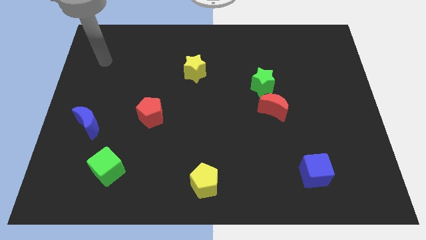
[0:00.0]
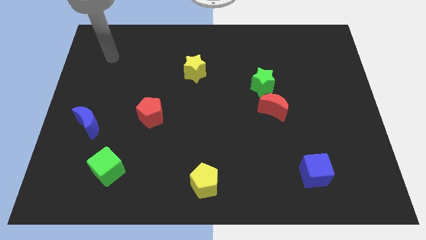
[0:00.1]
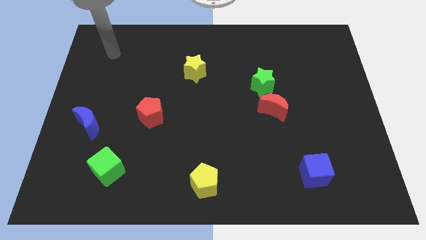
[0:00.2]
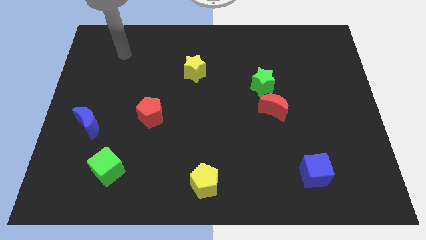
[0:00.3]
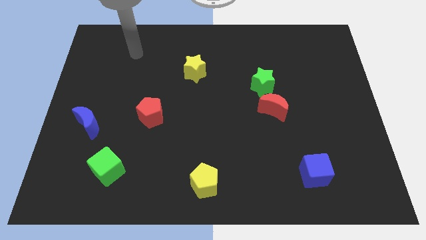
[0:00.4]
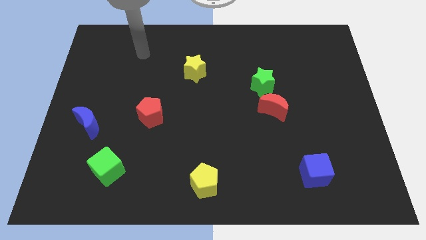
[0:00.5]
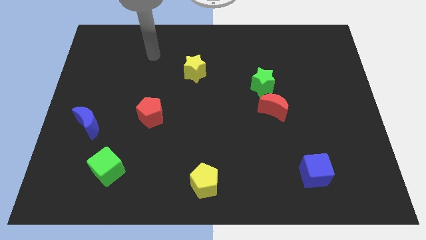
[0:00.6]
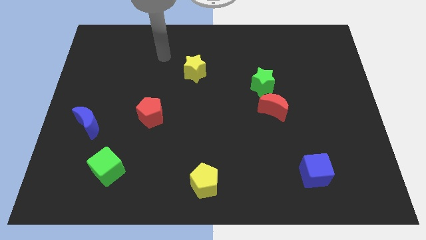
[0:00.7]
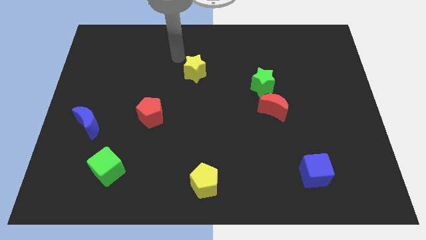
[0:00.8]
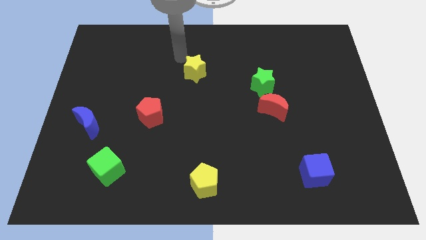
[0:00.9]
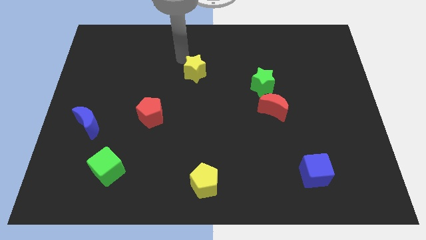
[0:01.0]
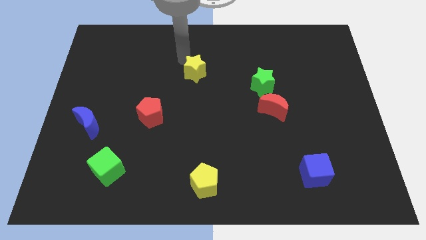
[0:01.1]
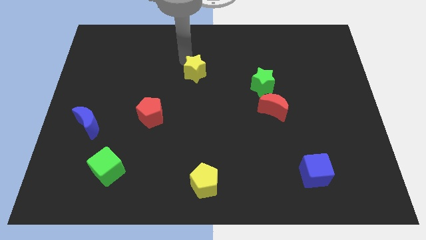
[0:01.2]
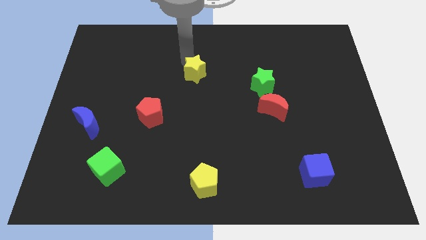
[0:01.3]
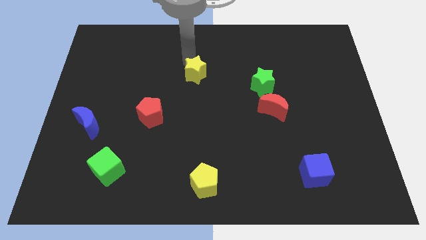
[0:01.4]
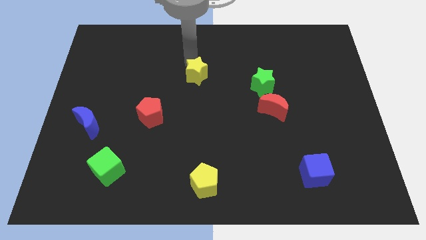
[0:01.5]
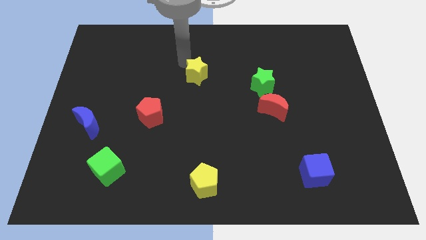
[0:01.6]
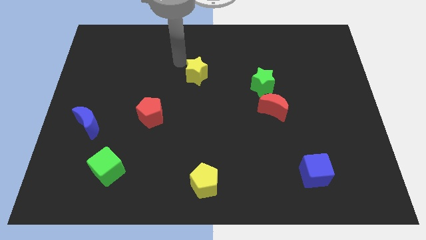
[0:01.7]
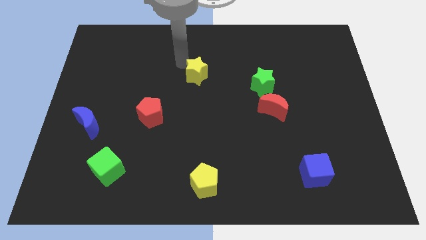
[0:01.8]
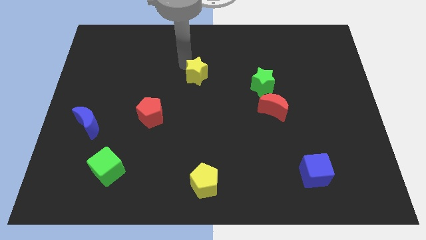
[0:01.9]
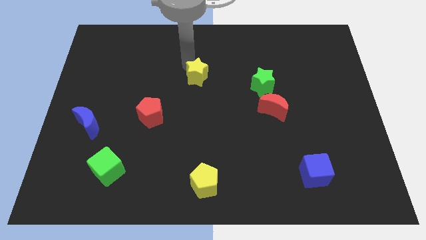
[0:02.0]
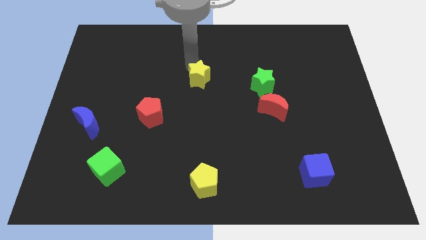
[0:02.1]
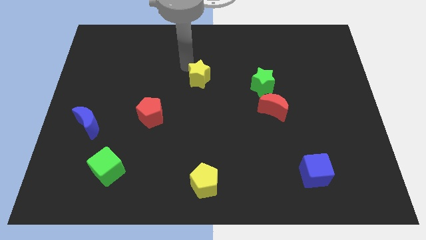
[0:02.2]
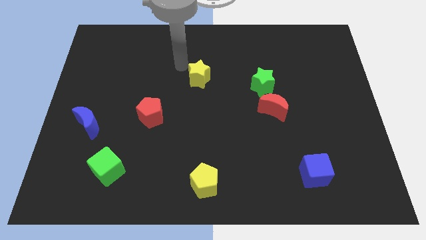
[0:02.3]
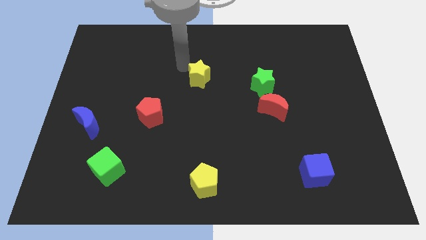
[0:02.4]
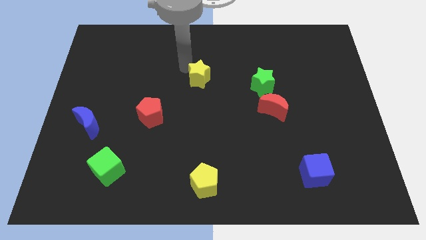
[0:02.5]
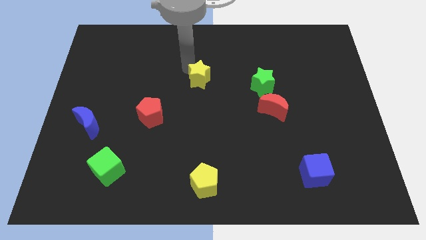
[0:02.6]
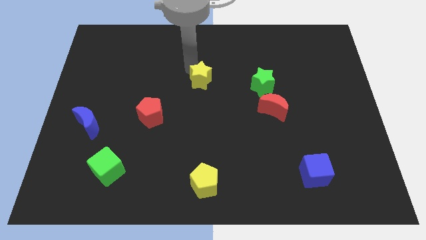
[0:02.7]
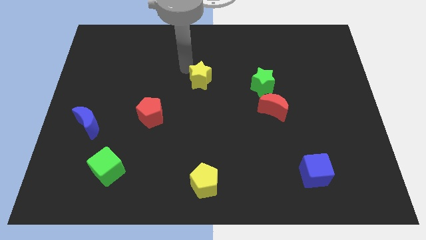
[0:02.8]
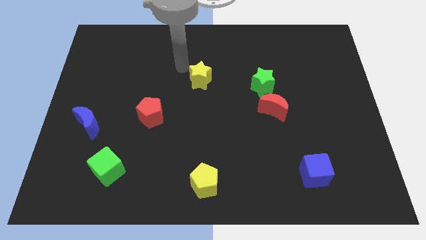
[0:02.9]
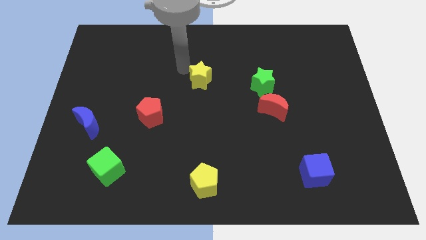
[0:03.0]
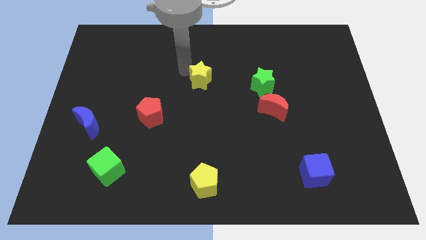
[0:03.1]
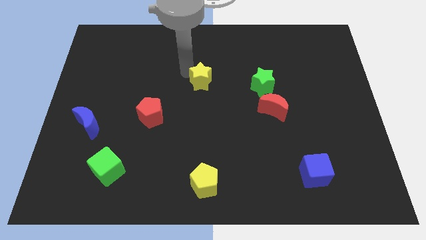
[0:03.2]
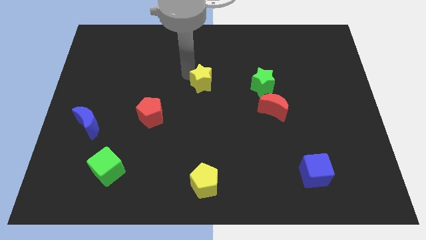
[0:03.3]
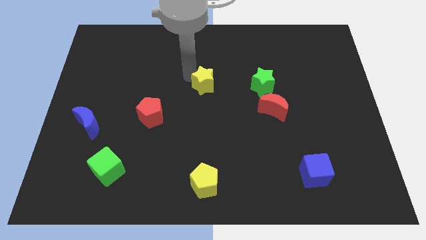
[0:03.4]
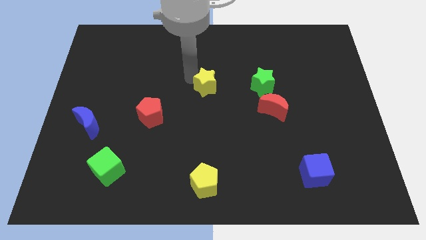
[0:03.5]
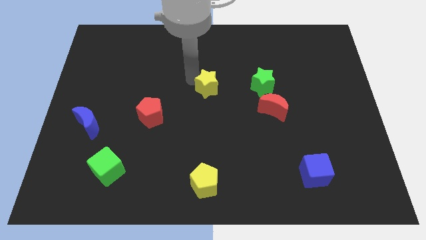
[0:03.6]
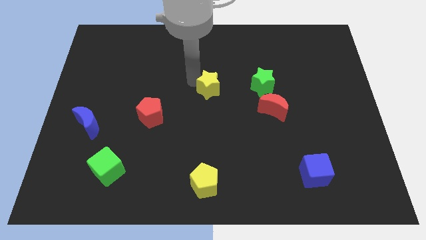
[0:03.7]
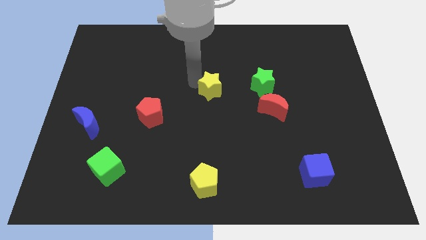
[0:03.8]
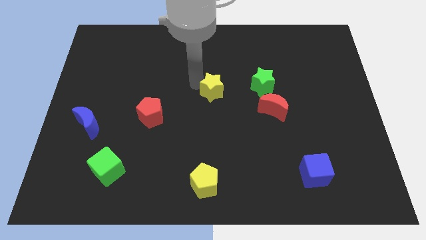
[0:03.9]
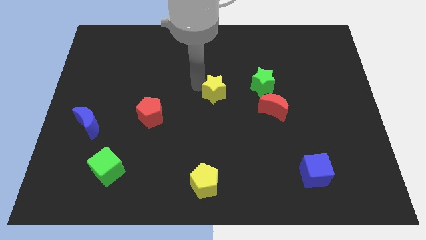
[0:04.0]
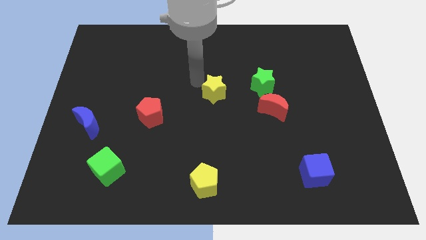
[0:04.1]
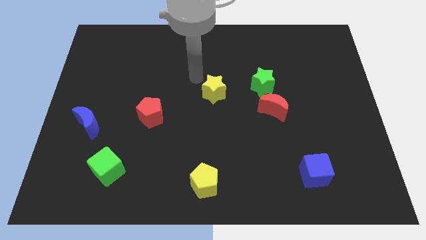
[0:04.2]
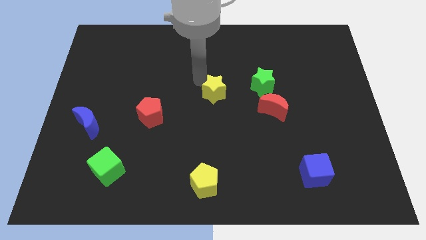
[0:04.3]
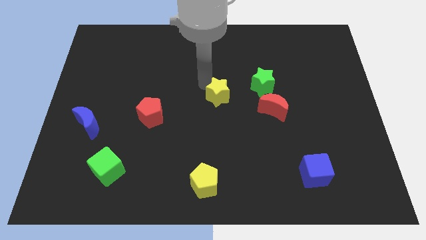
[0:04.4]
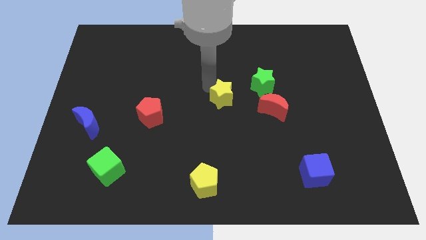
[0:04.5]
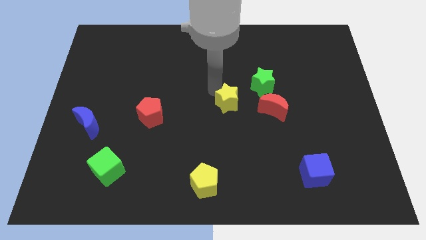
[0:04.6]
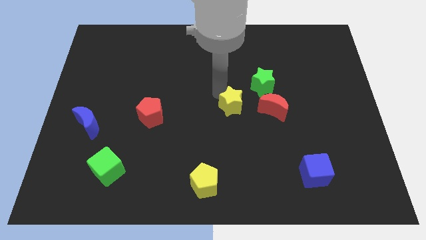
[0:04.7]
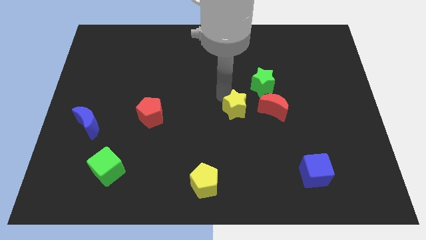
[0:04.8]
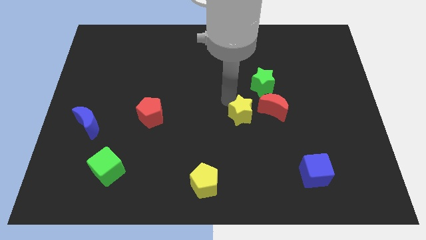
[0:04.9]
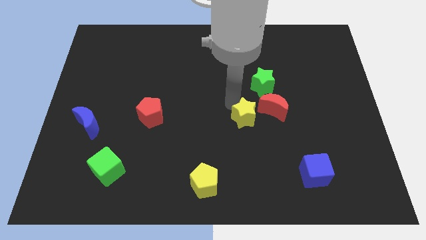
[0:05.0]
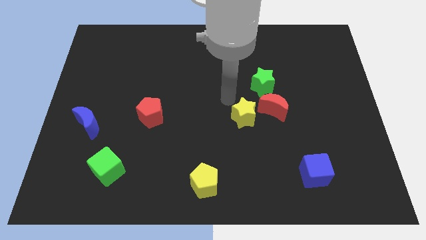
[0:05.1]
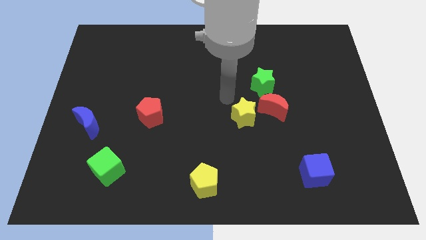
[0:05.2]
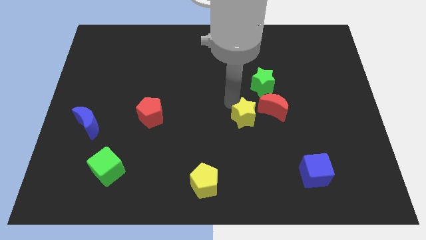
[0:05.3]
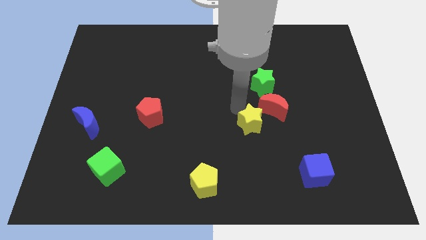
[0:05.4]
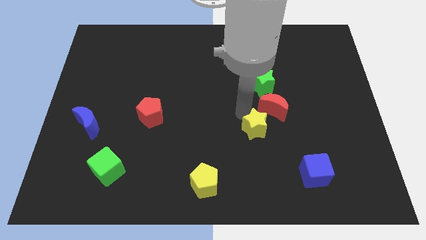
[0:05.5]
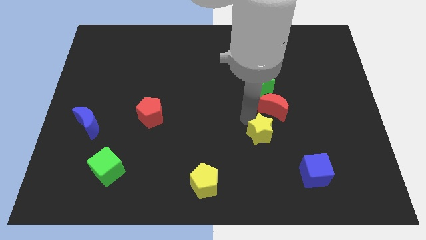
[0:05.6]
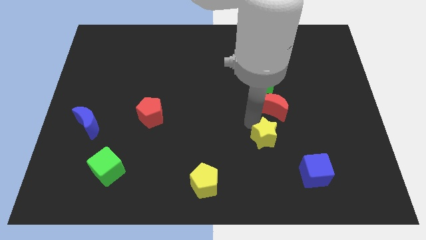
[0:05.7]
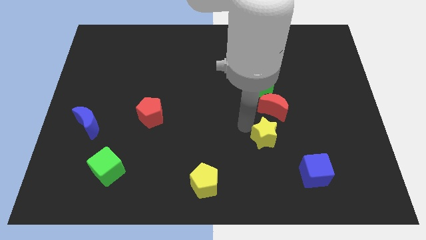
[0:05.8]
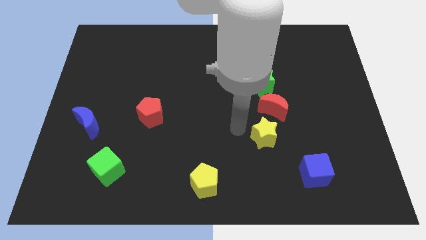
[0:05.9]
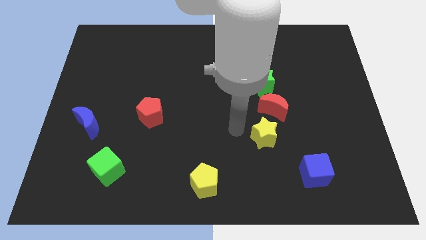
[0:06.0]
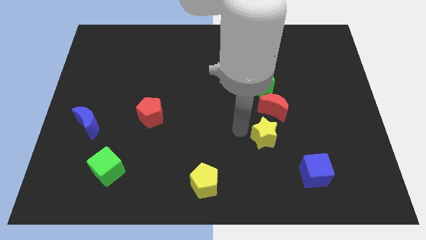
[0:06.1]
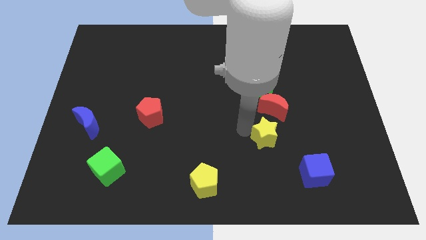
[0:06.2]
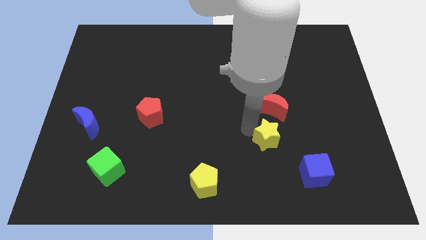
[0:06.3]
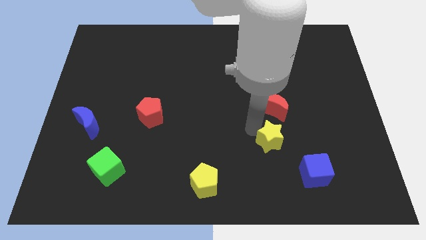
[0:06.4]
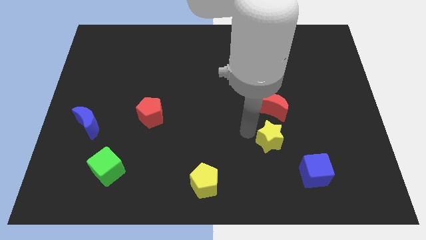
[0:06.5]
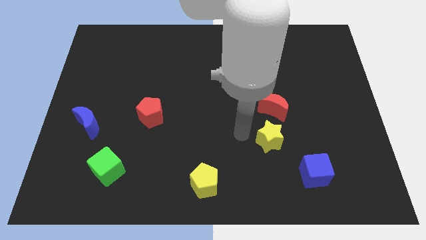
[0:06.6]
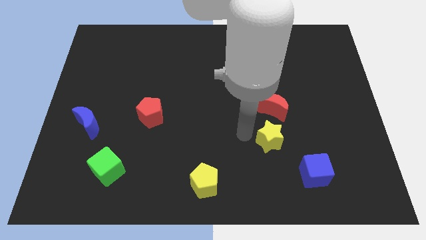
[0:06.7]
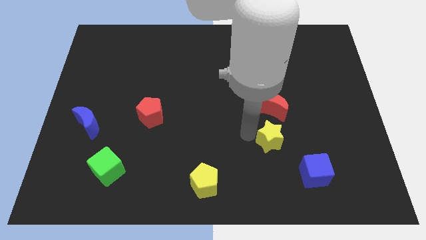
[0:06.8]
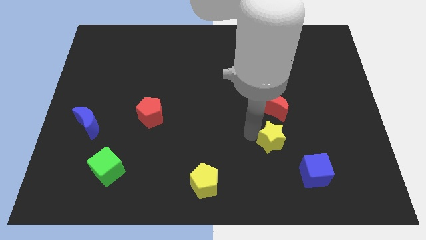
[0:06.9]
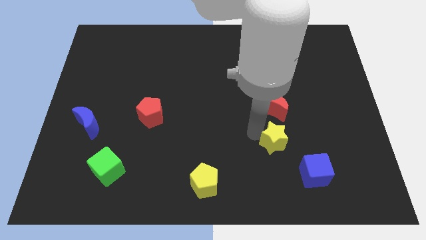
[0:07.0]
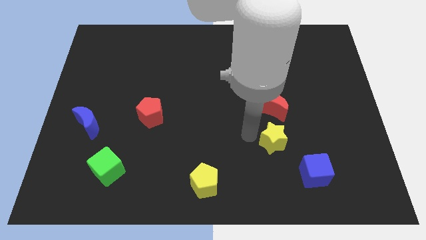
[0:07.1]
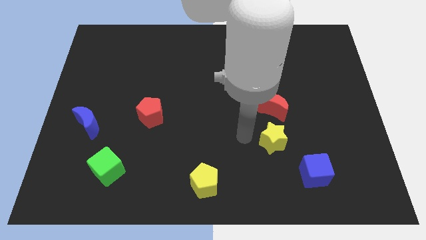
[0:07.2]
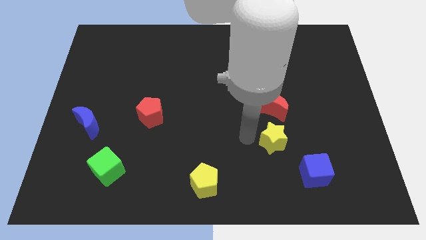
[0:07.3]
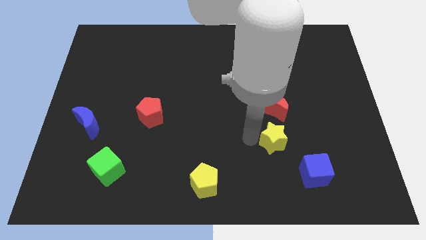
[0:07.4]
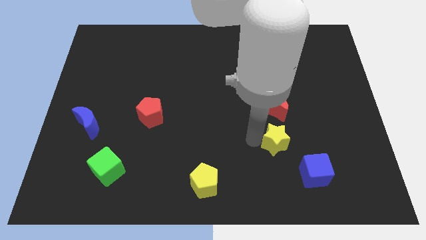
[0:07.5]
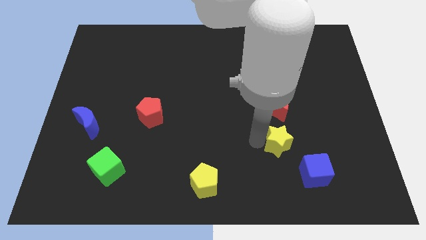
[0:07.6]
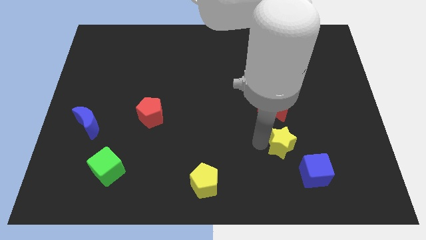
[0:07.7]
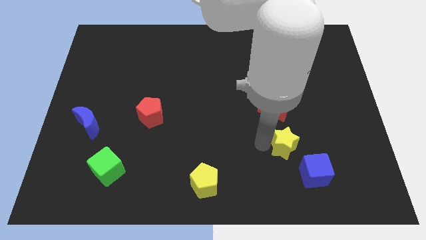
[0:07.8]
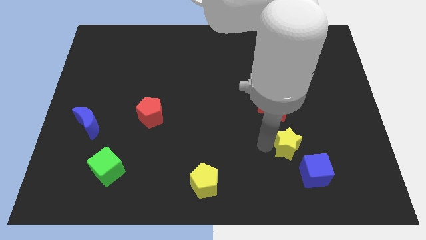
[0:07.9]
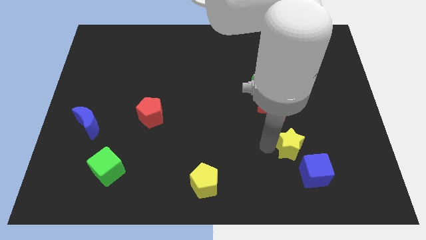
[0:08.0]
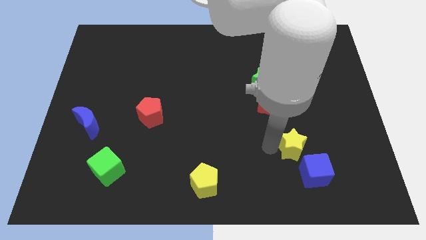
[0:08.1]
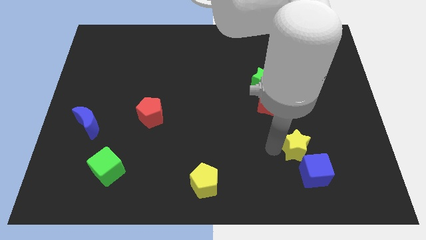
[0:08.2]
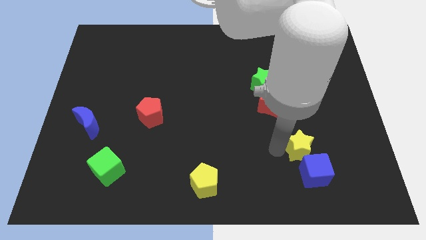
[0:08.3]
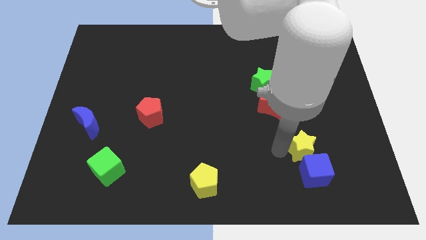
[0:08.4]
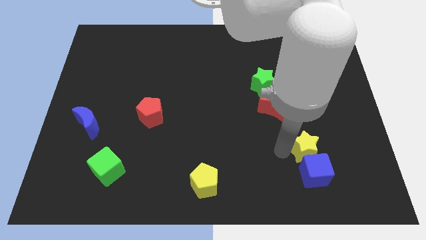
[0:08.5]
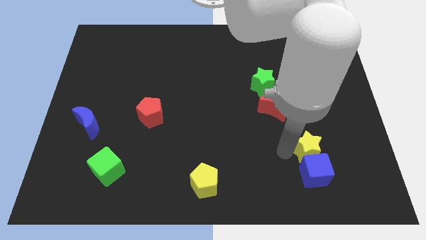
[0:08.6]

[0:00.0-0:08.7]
slide the yellow star to the top right of the blue cube
